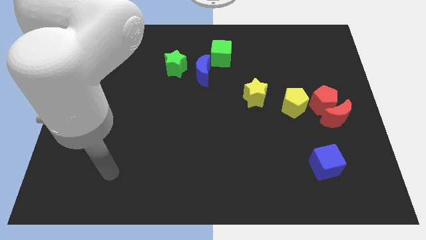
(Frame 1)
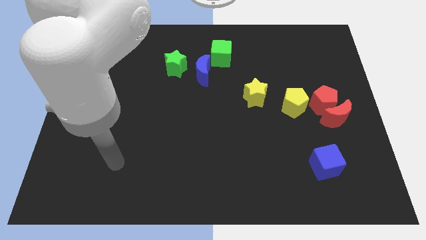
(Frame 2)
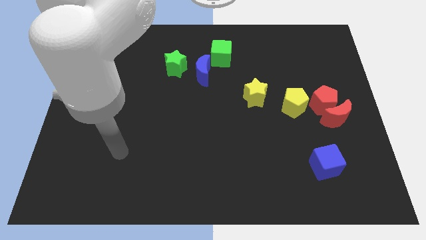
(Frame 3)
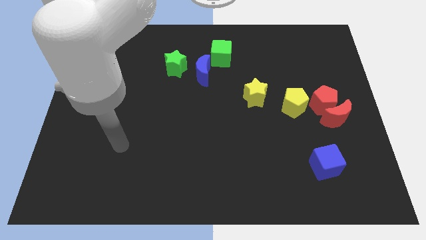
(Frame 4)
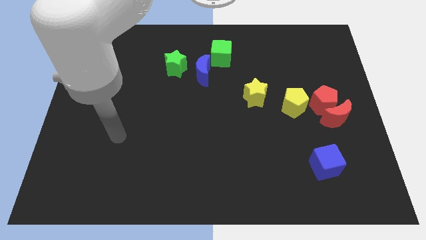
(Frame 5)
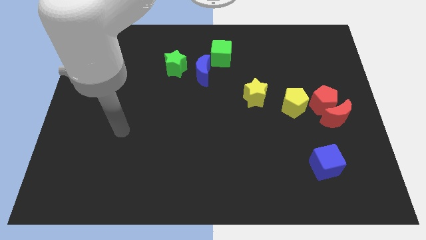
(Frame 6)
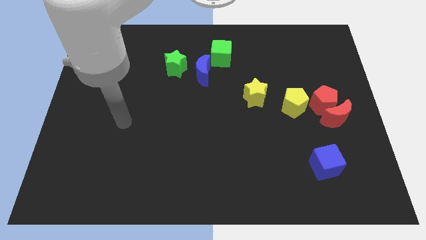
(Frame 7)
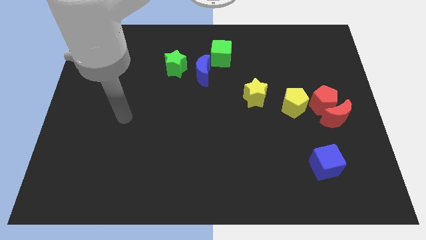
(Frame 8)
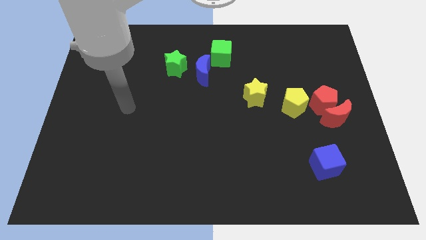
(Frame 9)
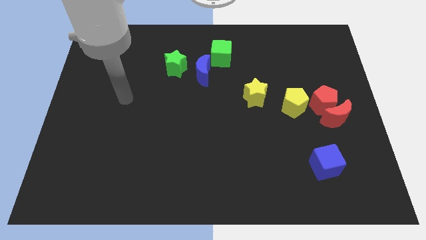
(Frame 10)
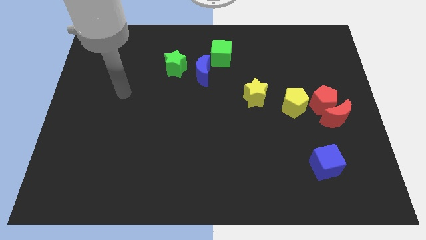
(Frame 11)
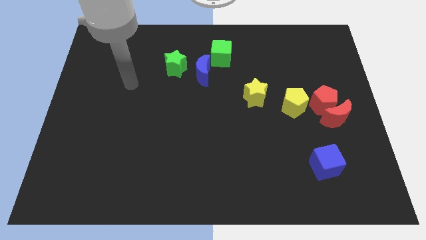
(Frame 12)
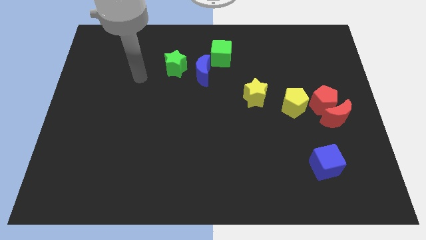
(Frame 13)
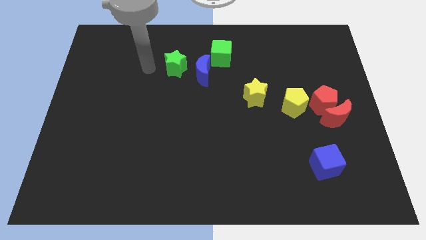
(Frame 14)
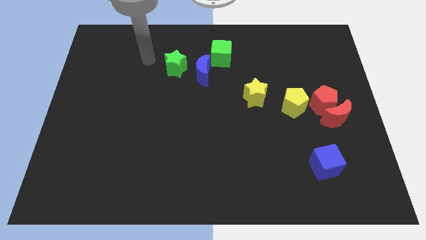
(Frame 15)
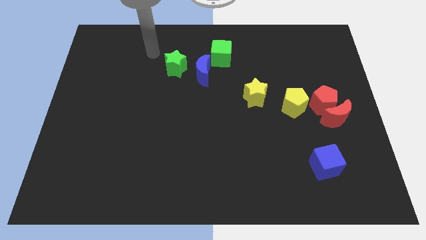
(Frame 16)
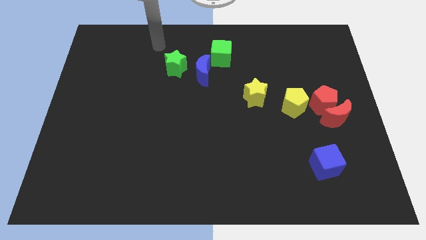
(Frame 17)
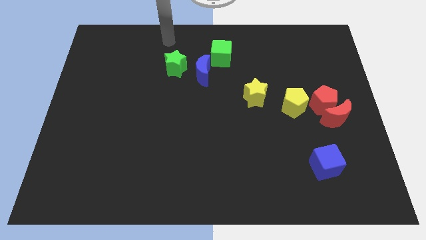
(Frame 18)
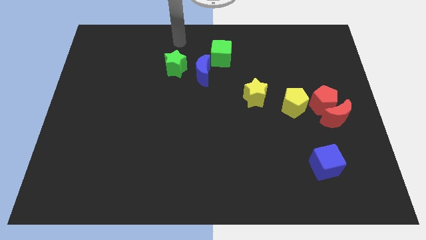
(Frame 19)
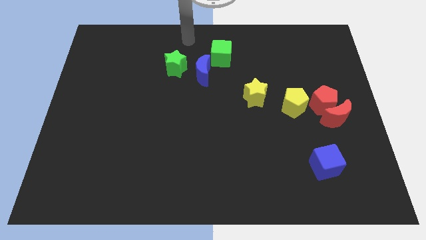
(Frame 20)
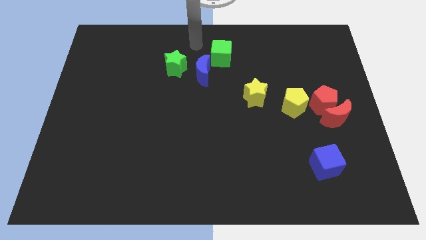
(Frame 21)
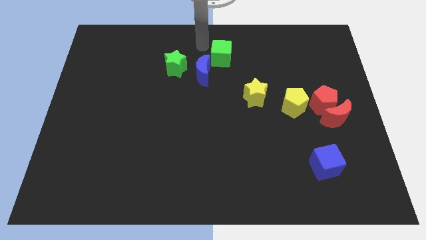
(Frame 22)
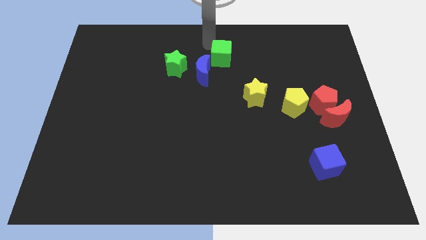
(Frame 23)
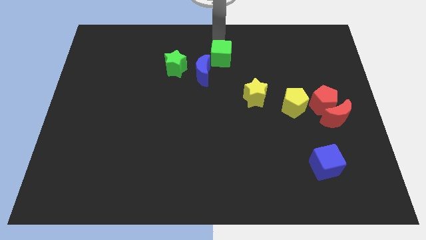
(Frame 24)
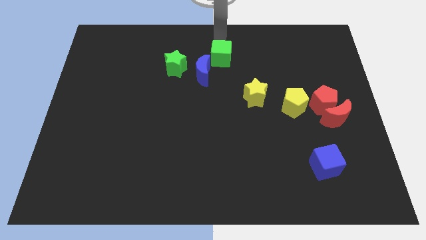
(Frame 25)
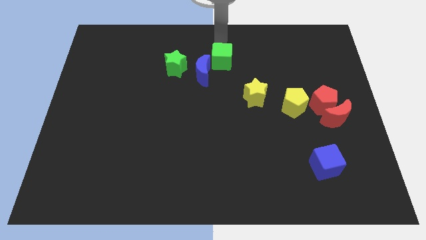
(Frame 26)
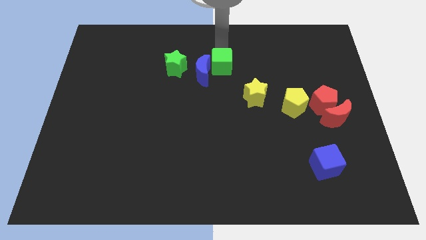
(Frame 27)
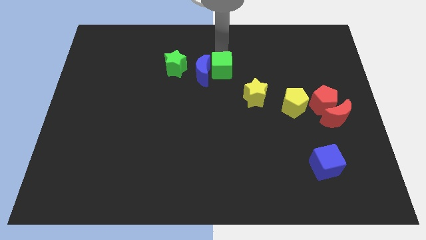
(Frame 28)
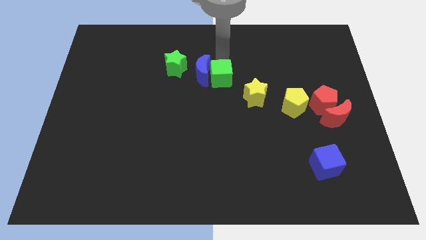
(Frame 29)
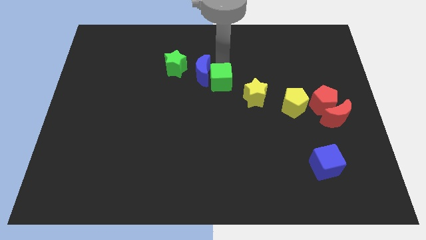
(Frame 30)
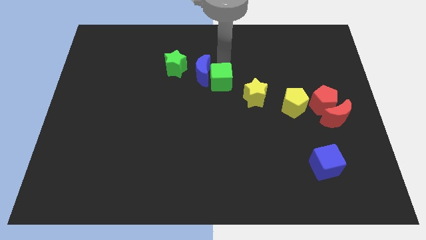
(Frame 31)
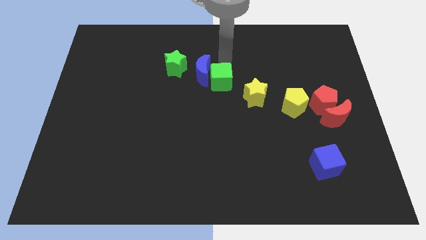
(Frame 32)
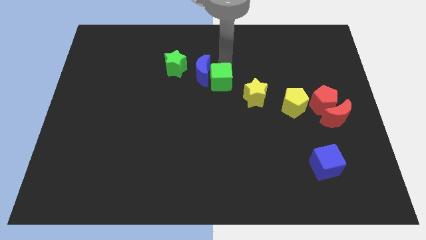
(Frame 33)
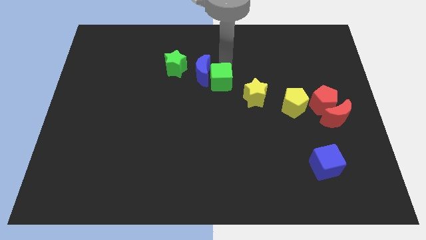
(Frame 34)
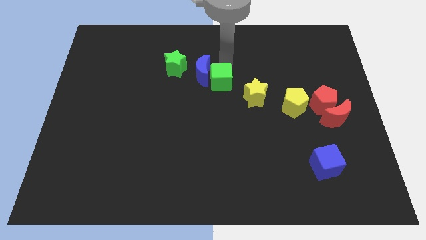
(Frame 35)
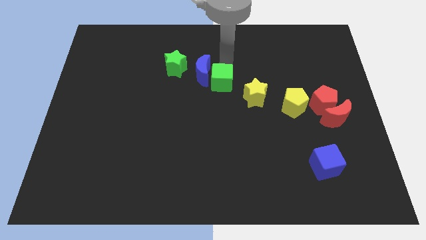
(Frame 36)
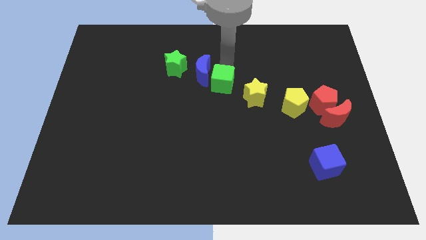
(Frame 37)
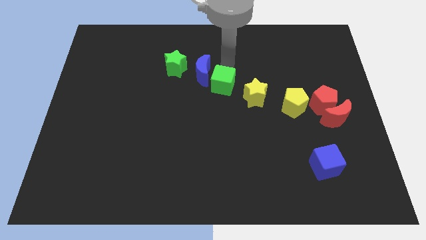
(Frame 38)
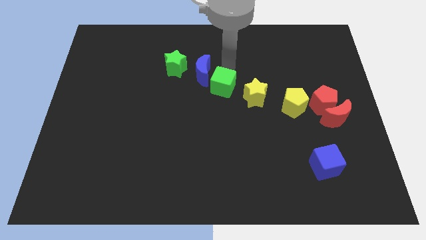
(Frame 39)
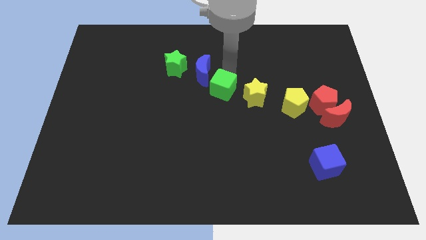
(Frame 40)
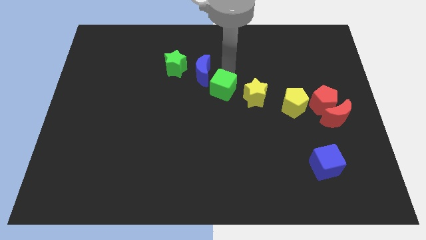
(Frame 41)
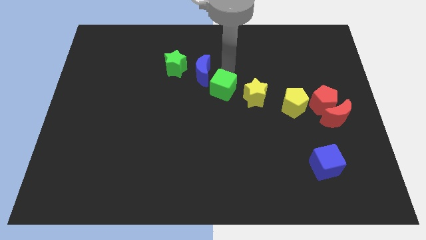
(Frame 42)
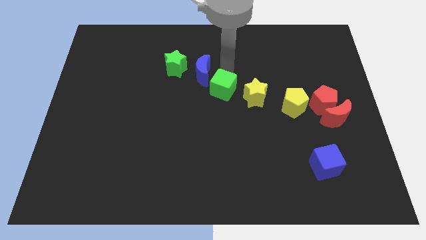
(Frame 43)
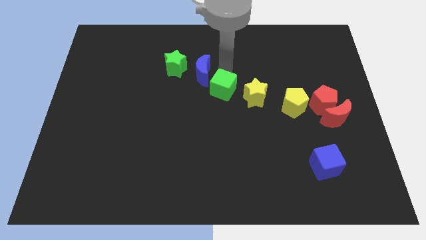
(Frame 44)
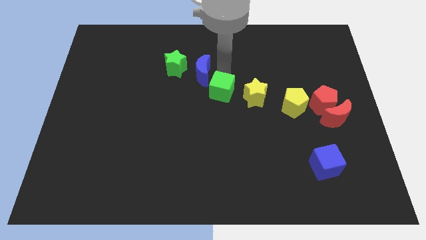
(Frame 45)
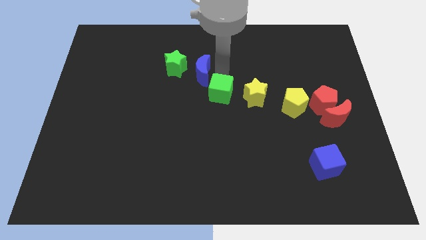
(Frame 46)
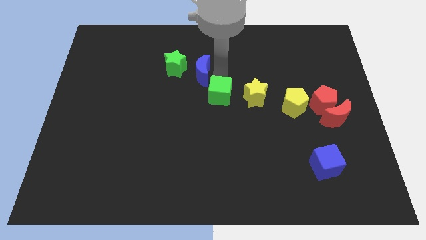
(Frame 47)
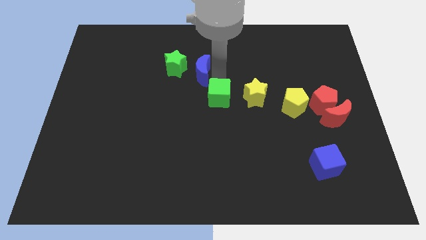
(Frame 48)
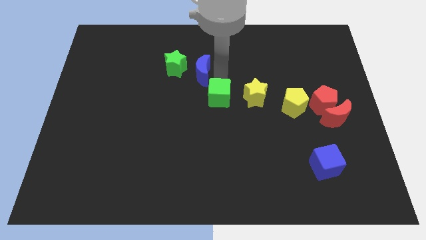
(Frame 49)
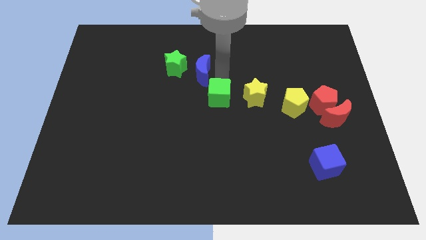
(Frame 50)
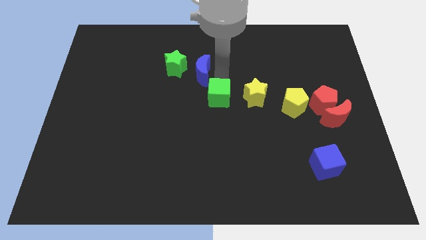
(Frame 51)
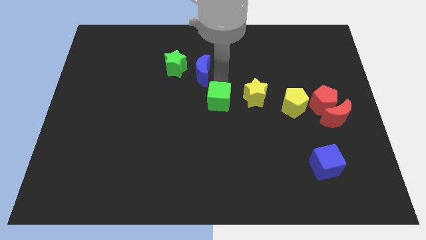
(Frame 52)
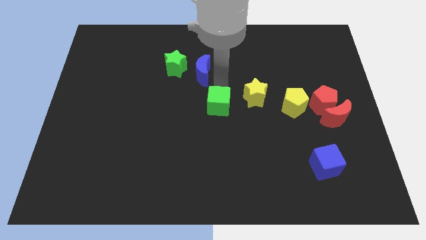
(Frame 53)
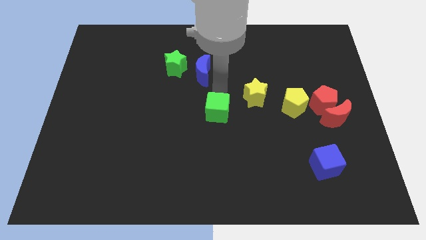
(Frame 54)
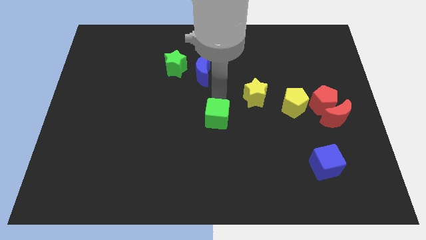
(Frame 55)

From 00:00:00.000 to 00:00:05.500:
slide the green cube downwards

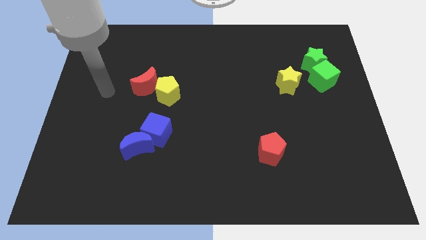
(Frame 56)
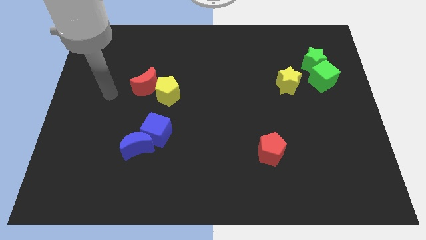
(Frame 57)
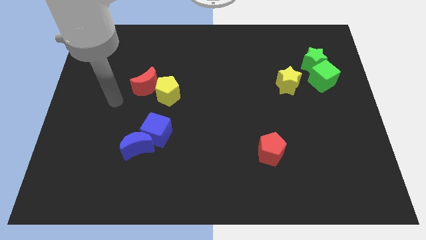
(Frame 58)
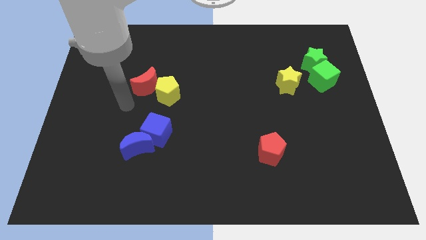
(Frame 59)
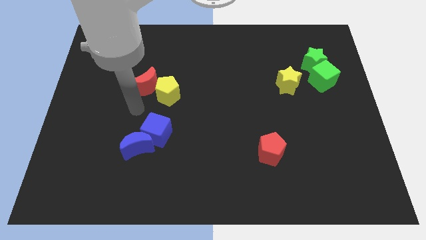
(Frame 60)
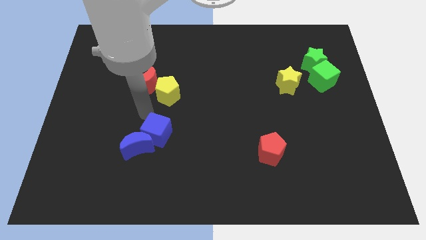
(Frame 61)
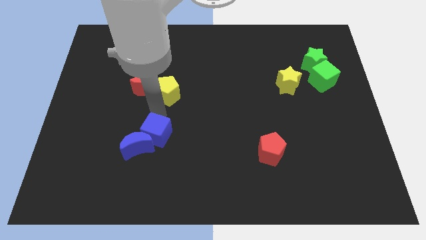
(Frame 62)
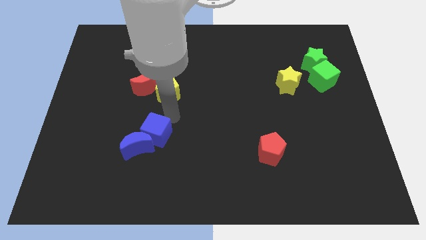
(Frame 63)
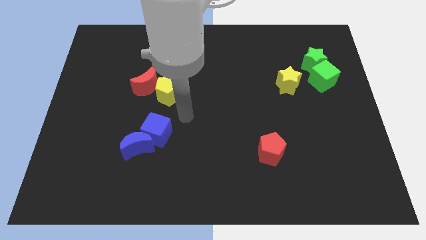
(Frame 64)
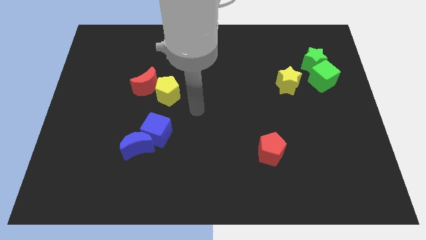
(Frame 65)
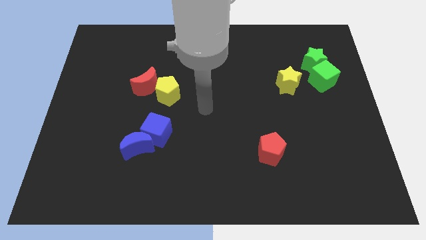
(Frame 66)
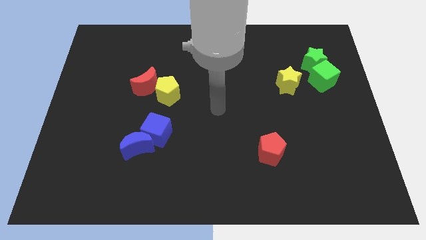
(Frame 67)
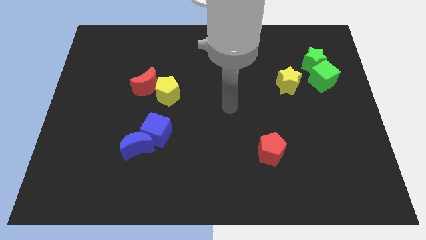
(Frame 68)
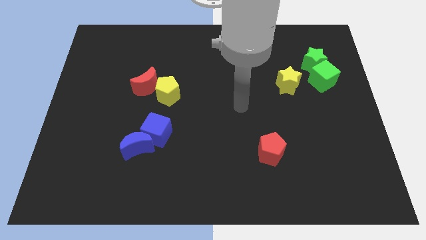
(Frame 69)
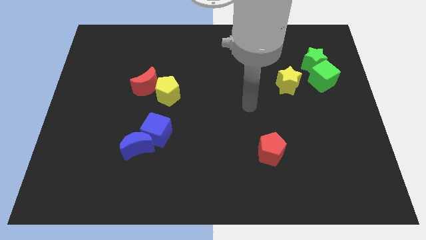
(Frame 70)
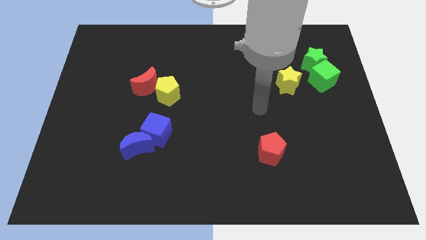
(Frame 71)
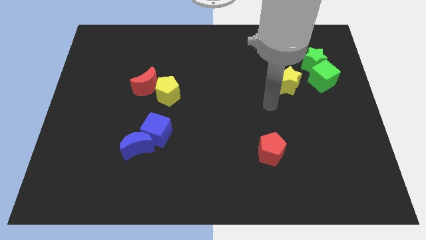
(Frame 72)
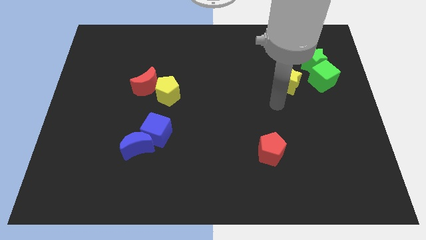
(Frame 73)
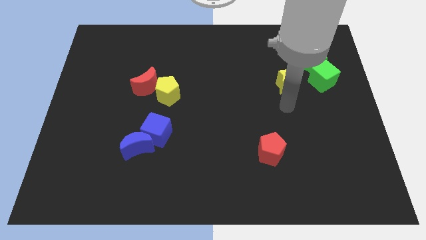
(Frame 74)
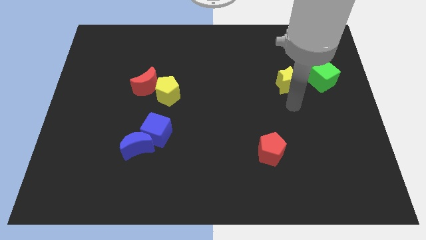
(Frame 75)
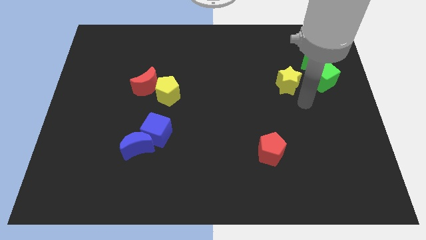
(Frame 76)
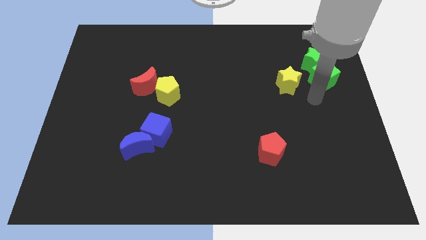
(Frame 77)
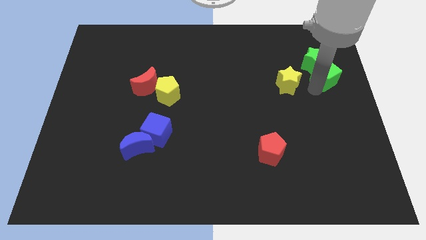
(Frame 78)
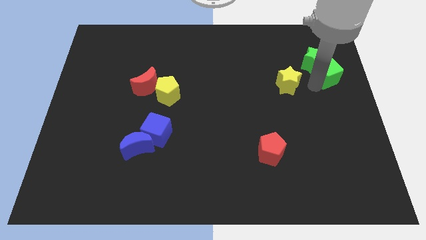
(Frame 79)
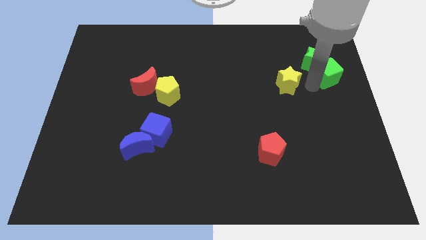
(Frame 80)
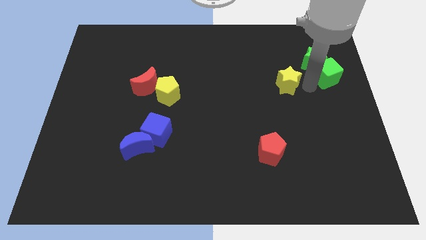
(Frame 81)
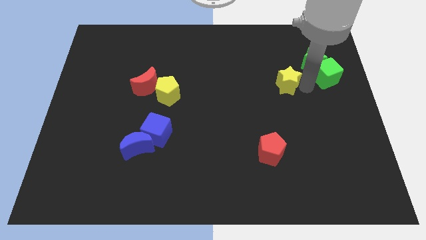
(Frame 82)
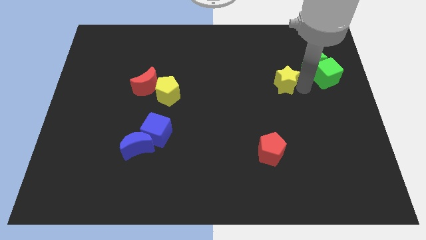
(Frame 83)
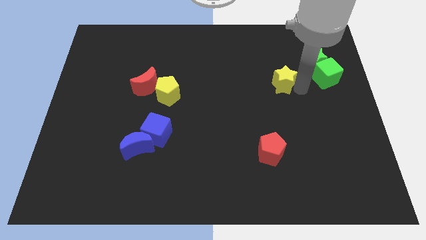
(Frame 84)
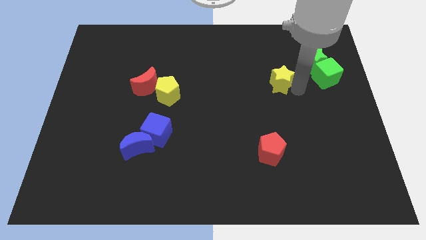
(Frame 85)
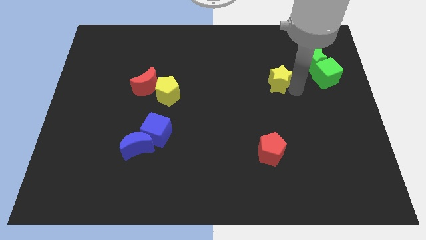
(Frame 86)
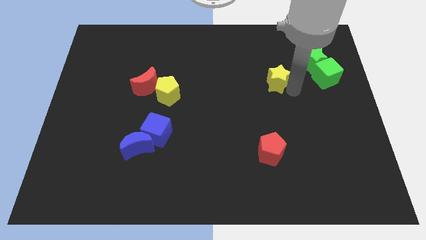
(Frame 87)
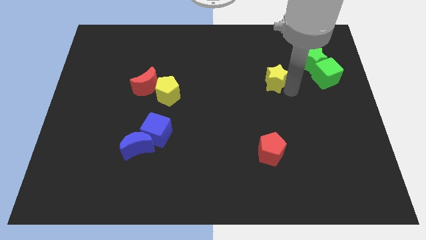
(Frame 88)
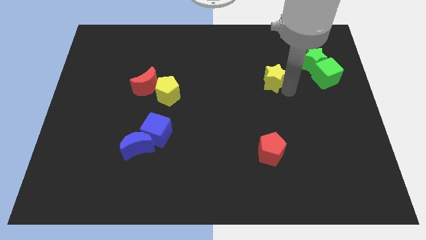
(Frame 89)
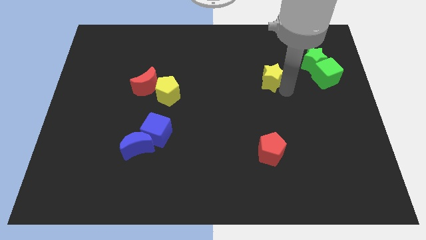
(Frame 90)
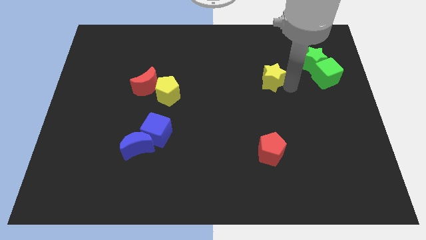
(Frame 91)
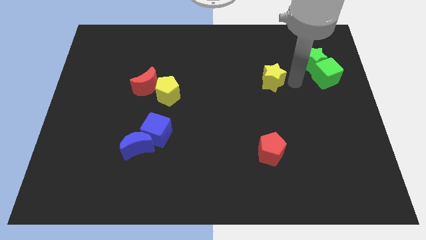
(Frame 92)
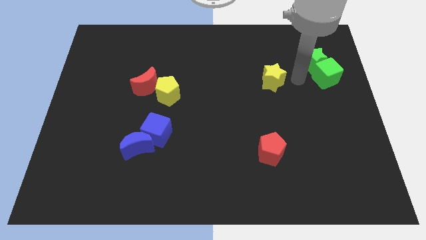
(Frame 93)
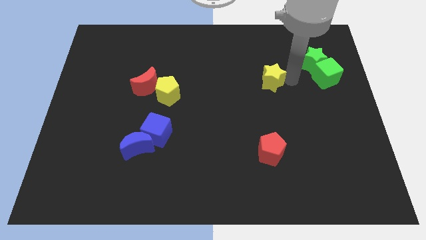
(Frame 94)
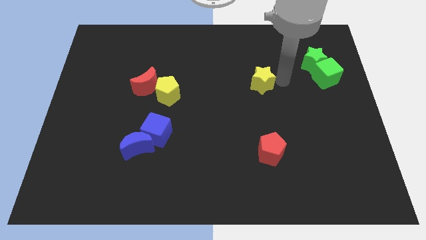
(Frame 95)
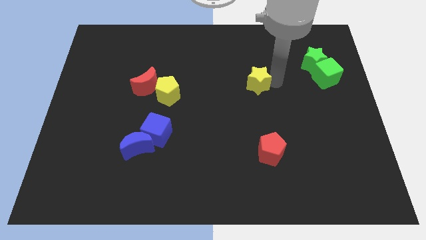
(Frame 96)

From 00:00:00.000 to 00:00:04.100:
slightly slide the yellow star left
